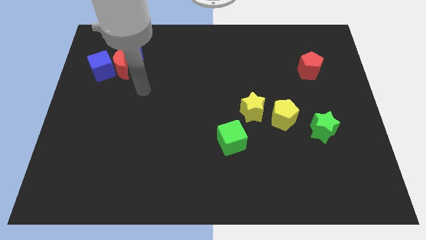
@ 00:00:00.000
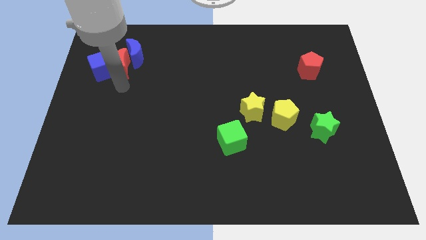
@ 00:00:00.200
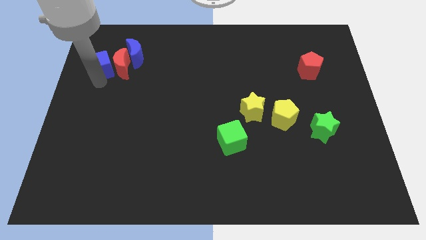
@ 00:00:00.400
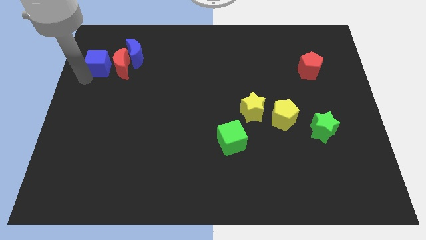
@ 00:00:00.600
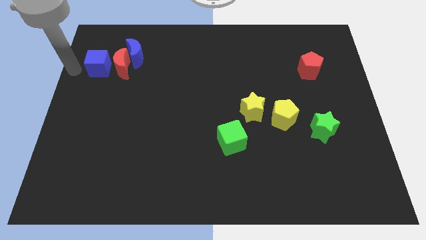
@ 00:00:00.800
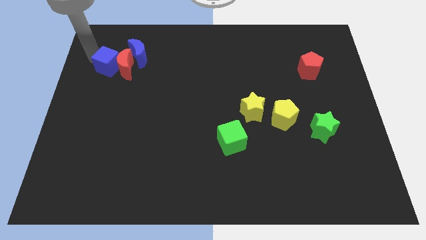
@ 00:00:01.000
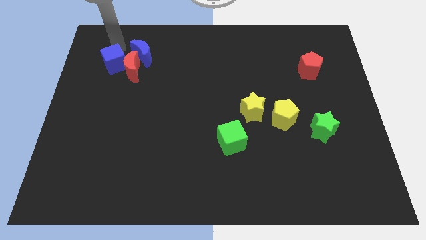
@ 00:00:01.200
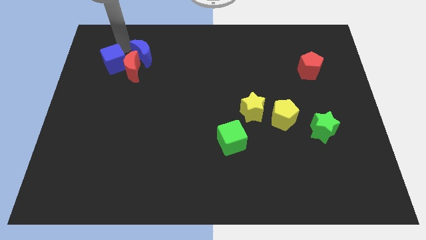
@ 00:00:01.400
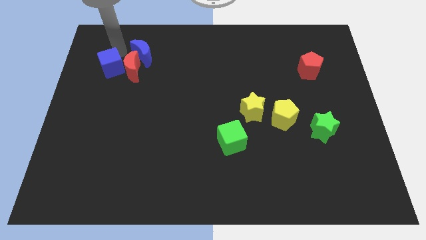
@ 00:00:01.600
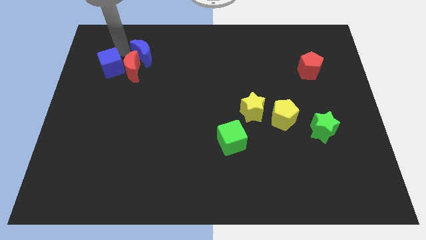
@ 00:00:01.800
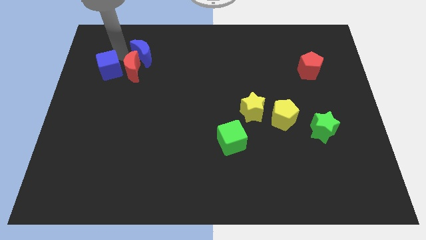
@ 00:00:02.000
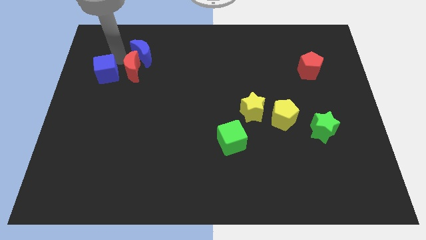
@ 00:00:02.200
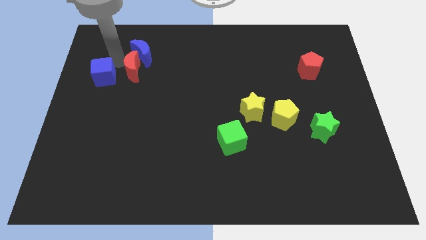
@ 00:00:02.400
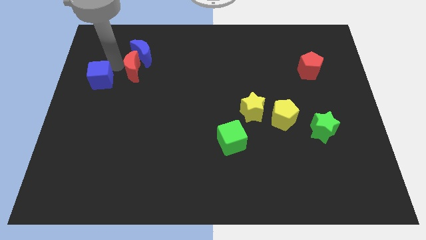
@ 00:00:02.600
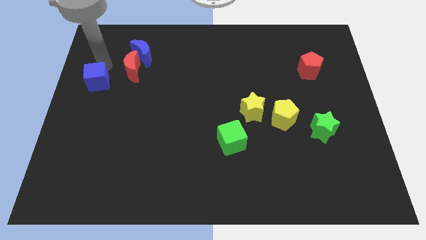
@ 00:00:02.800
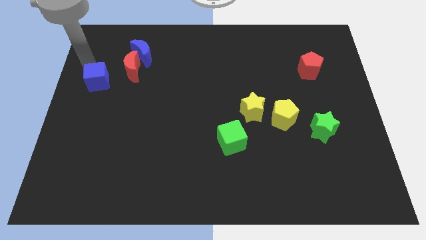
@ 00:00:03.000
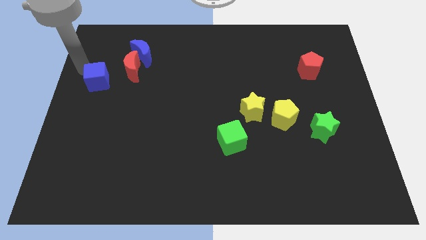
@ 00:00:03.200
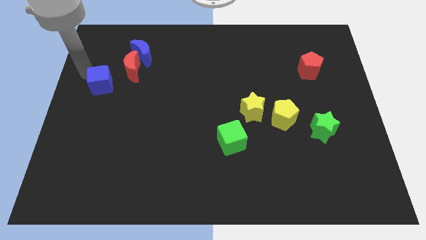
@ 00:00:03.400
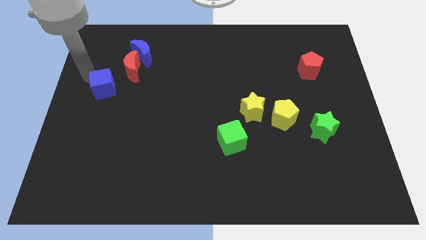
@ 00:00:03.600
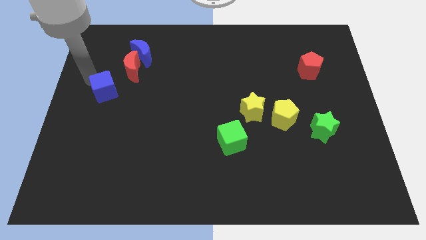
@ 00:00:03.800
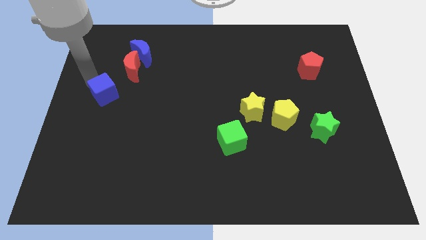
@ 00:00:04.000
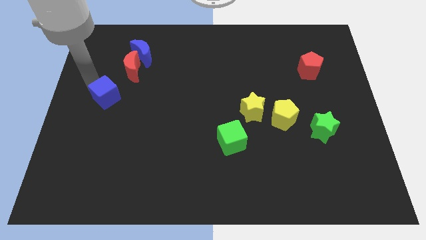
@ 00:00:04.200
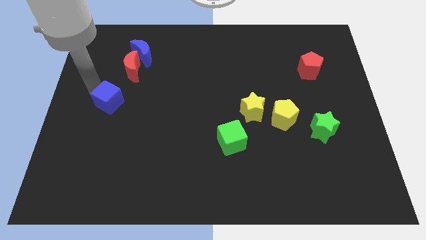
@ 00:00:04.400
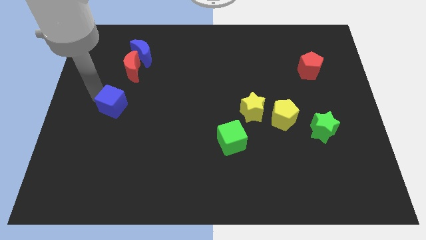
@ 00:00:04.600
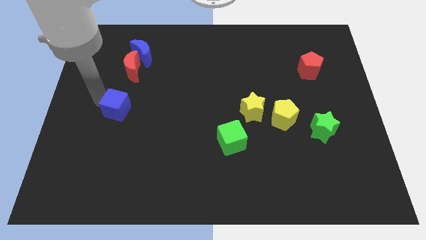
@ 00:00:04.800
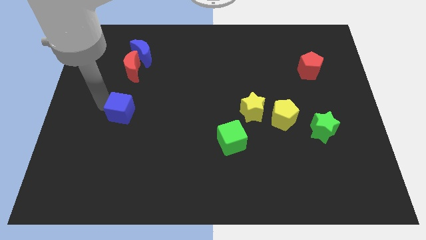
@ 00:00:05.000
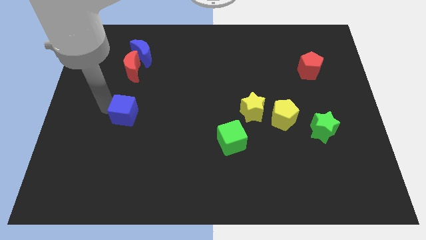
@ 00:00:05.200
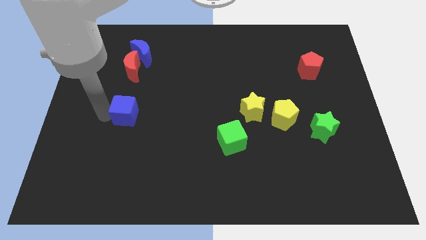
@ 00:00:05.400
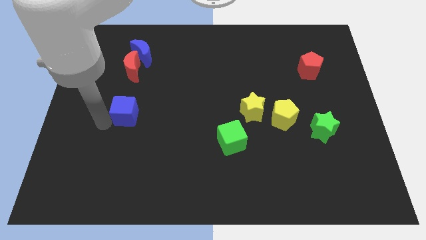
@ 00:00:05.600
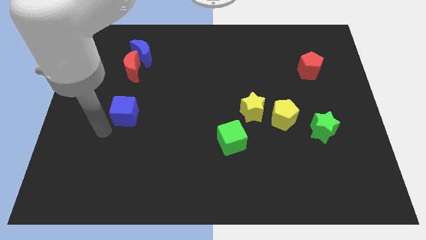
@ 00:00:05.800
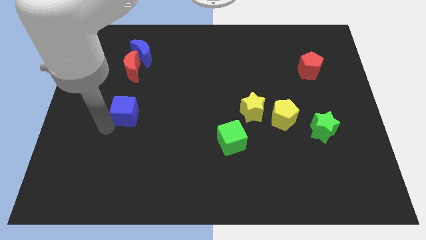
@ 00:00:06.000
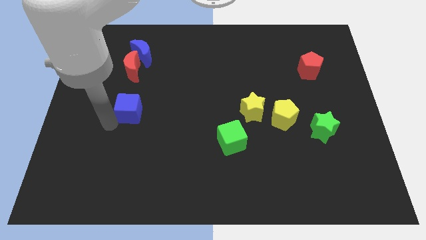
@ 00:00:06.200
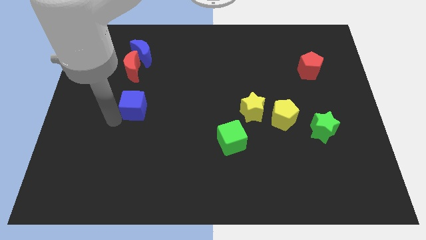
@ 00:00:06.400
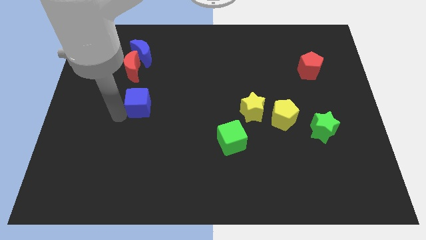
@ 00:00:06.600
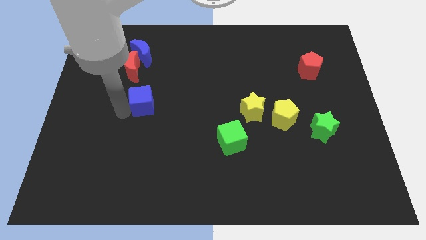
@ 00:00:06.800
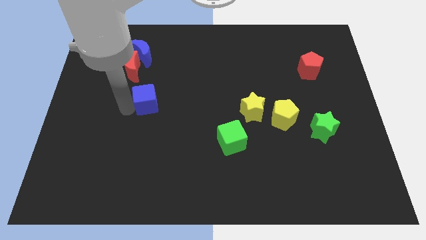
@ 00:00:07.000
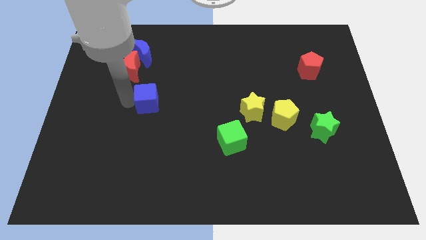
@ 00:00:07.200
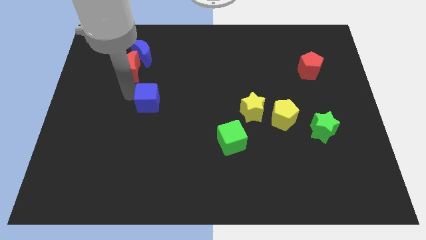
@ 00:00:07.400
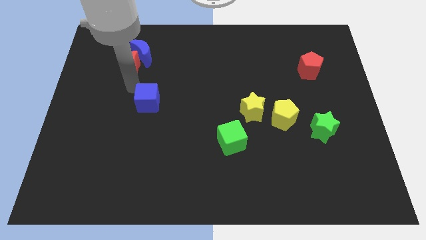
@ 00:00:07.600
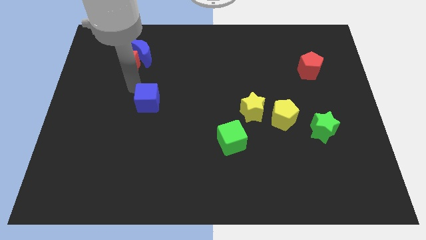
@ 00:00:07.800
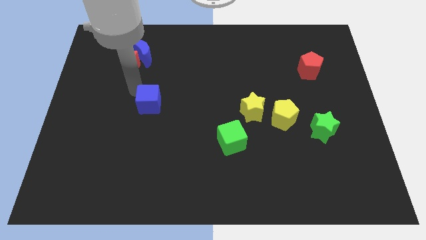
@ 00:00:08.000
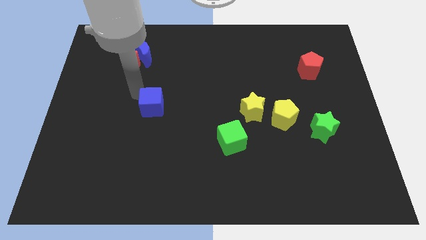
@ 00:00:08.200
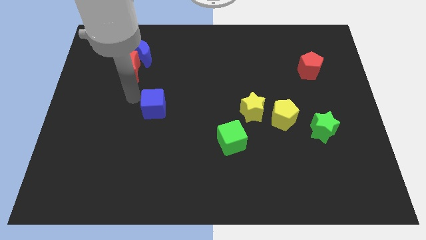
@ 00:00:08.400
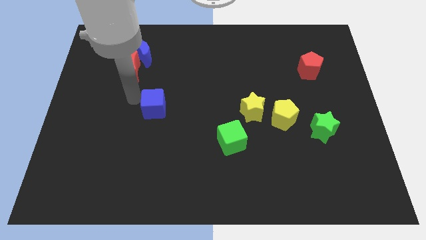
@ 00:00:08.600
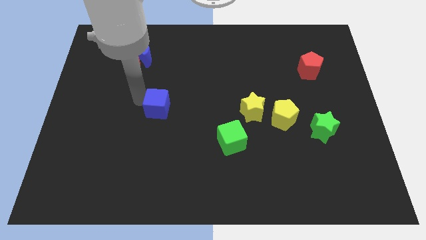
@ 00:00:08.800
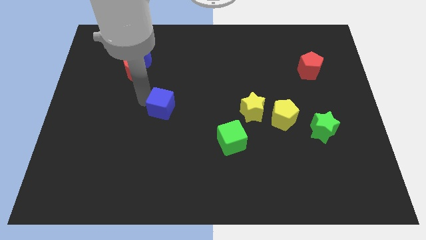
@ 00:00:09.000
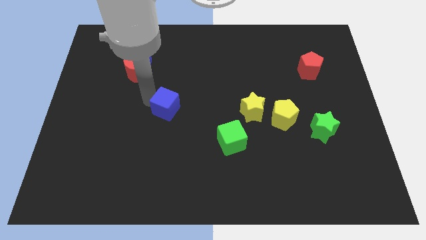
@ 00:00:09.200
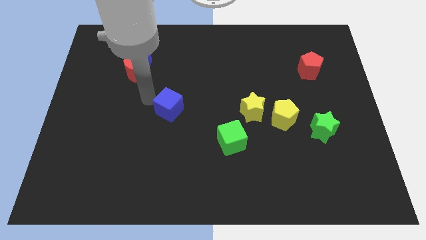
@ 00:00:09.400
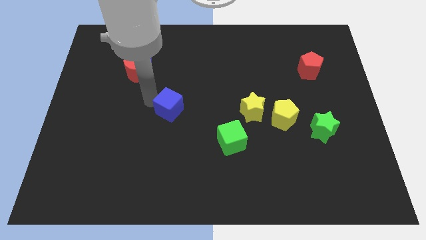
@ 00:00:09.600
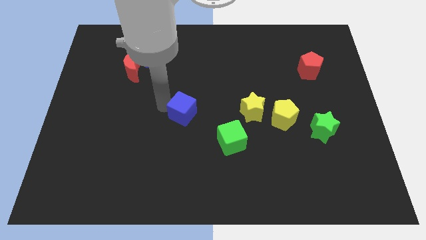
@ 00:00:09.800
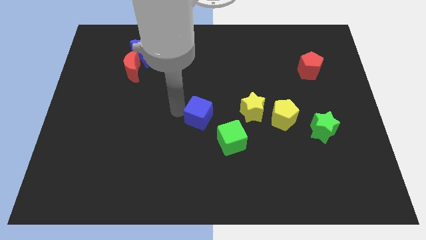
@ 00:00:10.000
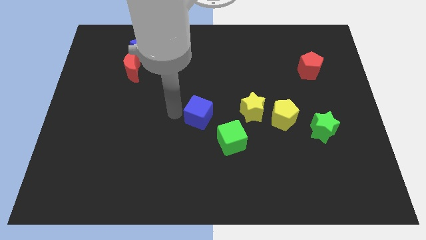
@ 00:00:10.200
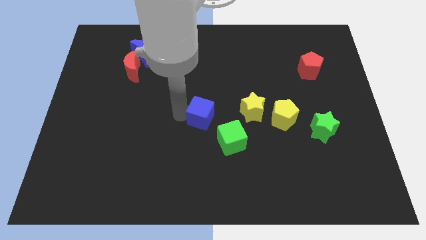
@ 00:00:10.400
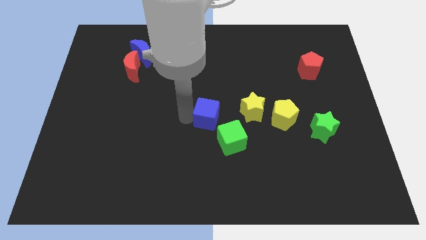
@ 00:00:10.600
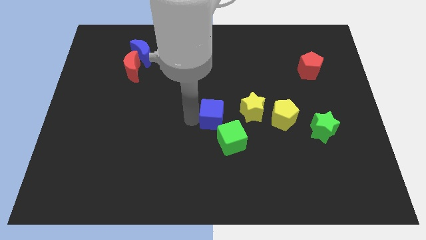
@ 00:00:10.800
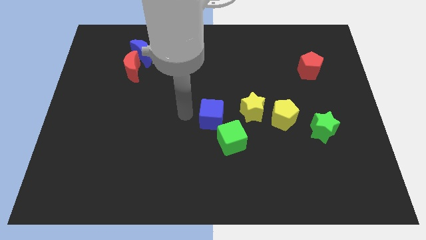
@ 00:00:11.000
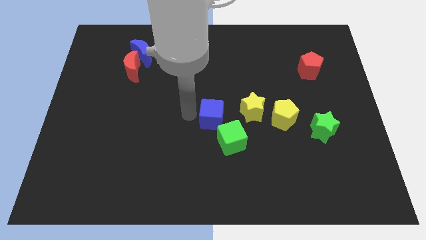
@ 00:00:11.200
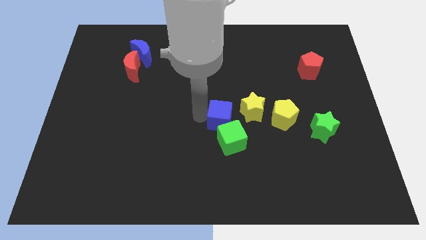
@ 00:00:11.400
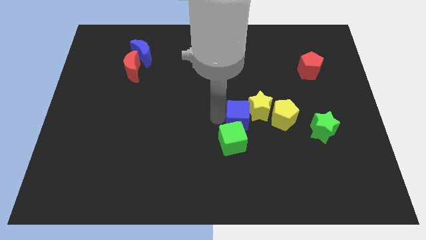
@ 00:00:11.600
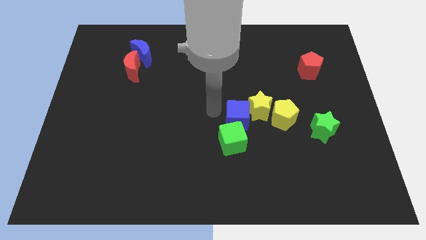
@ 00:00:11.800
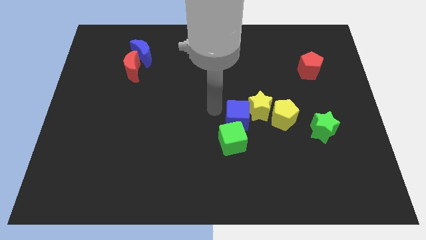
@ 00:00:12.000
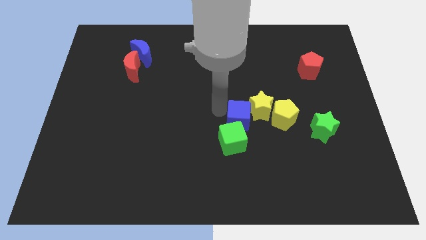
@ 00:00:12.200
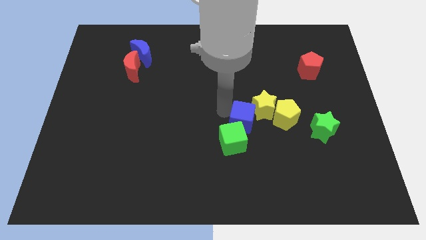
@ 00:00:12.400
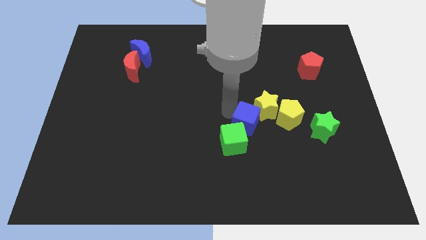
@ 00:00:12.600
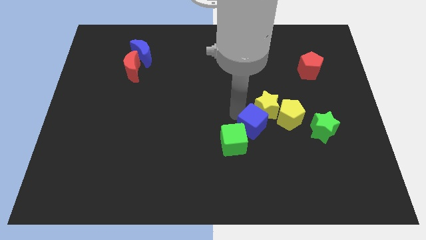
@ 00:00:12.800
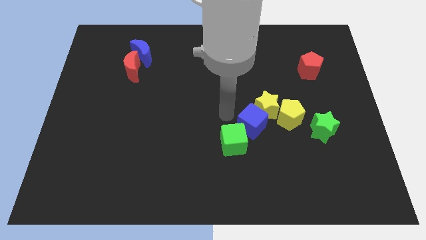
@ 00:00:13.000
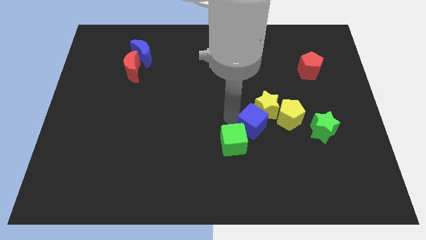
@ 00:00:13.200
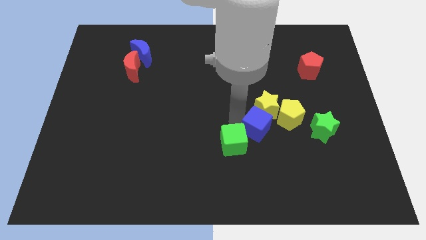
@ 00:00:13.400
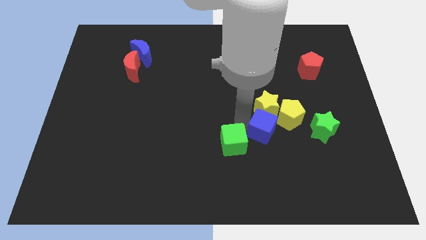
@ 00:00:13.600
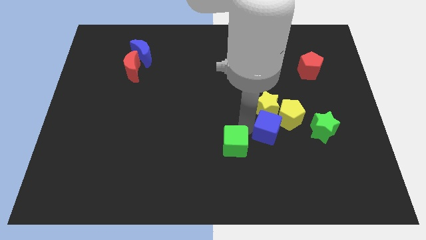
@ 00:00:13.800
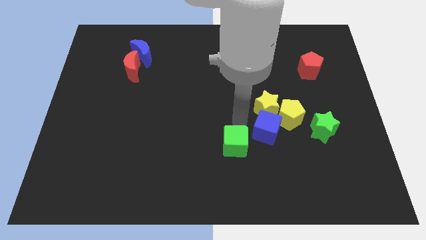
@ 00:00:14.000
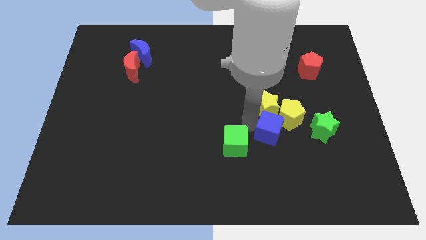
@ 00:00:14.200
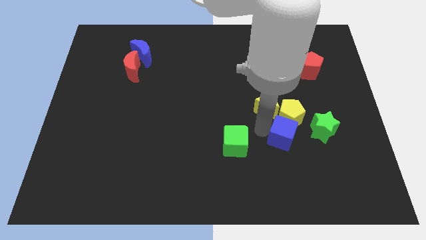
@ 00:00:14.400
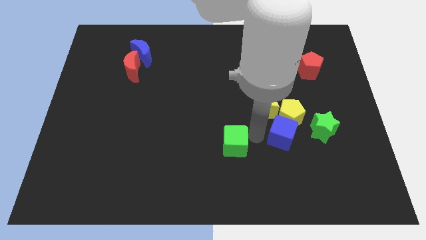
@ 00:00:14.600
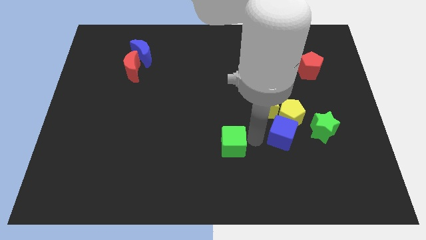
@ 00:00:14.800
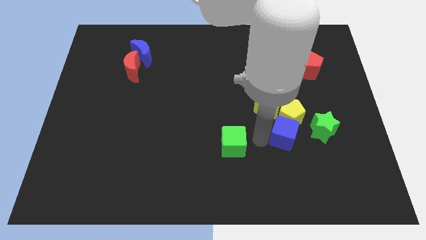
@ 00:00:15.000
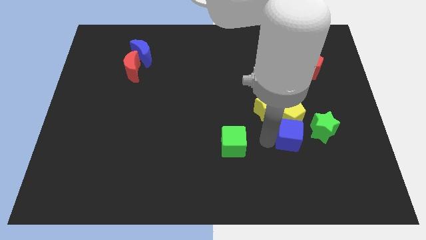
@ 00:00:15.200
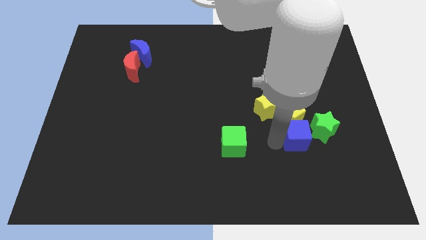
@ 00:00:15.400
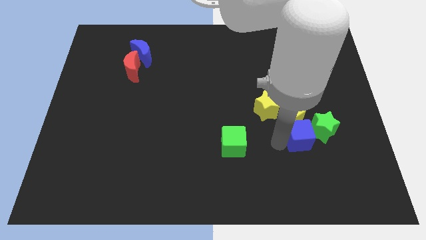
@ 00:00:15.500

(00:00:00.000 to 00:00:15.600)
move the blue cube next to the green star
